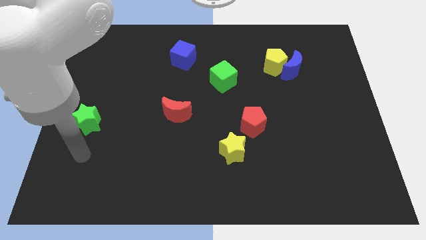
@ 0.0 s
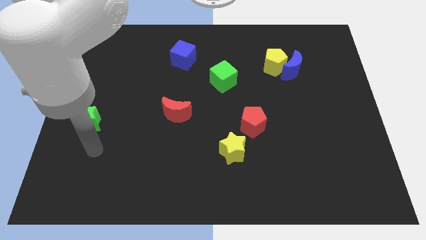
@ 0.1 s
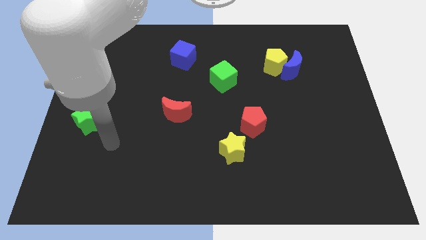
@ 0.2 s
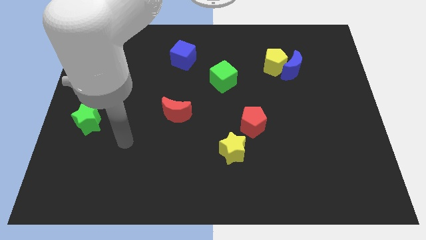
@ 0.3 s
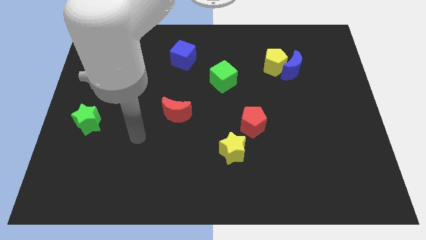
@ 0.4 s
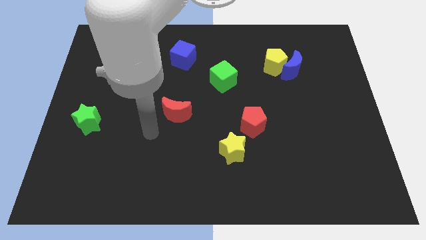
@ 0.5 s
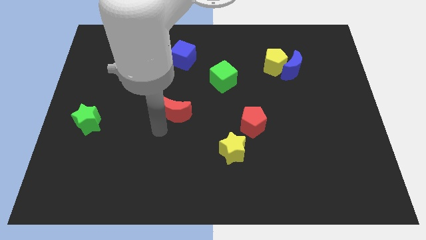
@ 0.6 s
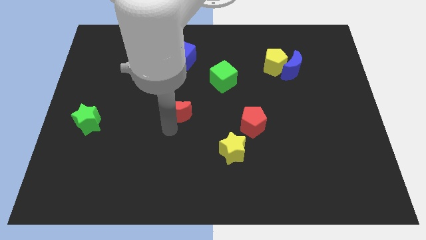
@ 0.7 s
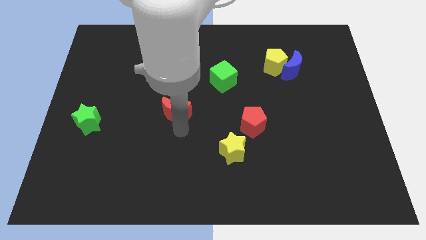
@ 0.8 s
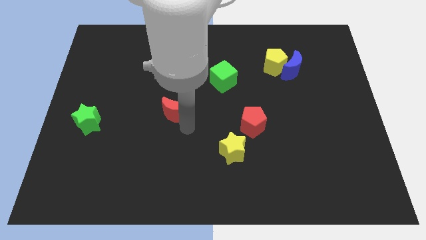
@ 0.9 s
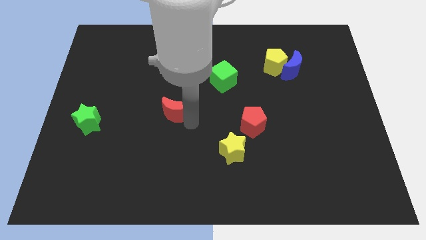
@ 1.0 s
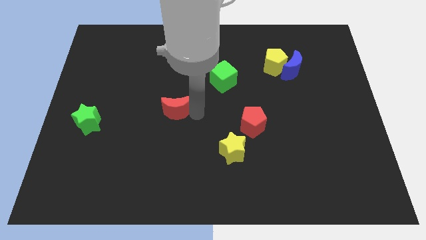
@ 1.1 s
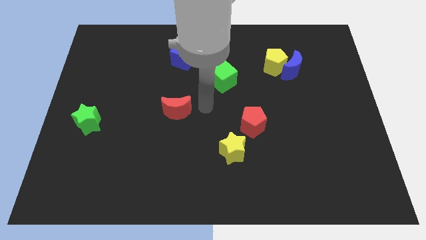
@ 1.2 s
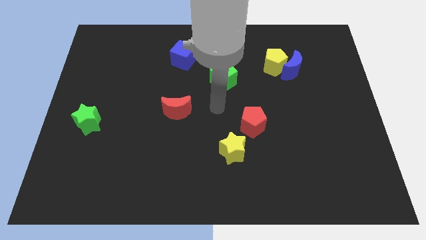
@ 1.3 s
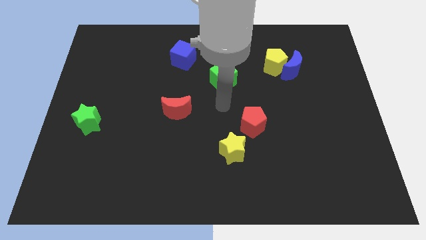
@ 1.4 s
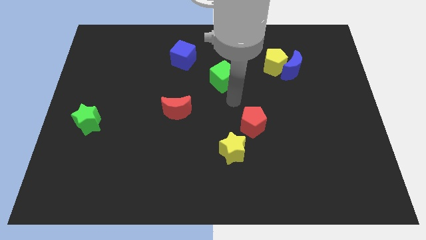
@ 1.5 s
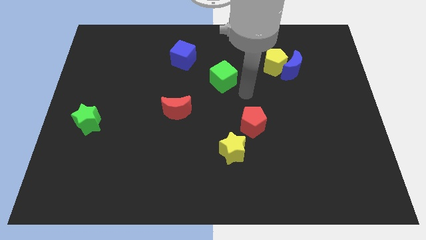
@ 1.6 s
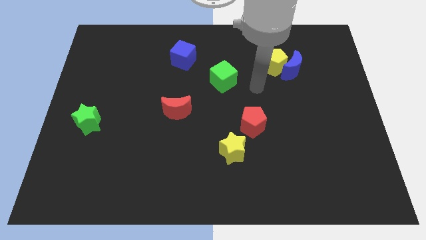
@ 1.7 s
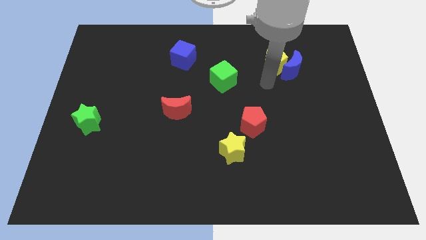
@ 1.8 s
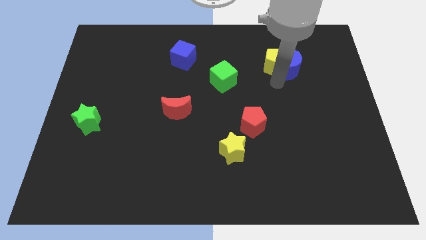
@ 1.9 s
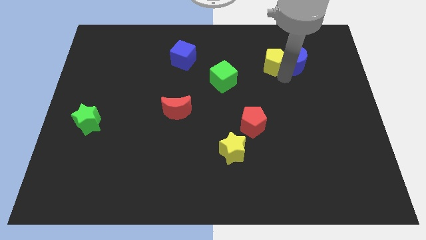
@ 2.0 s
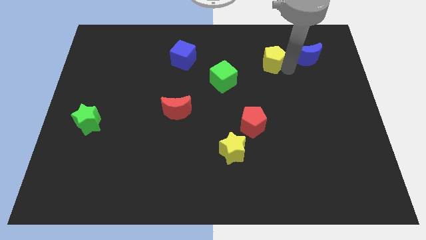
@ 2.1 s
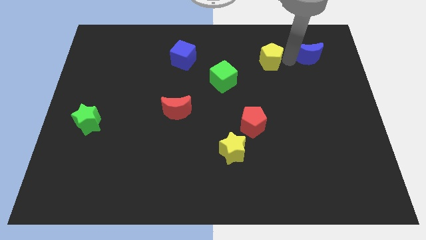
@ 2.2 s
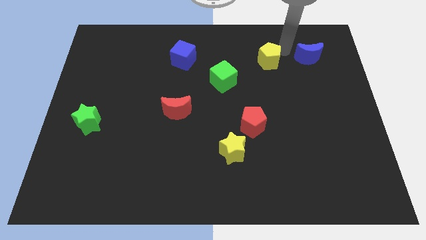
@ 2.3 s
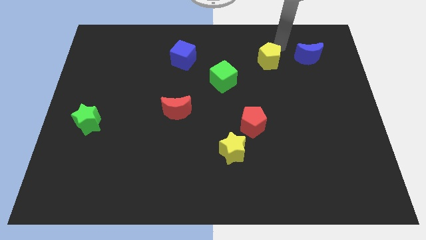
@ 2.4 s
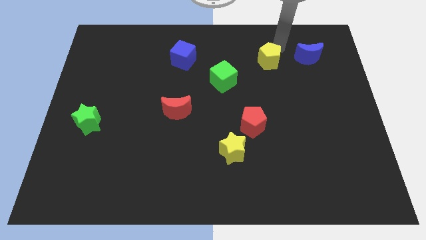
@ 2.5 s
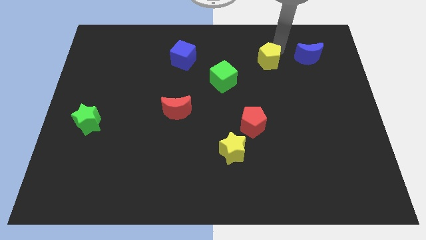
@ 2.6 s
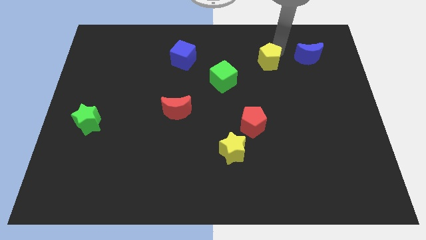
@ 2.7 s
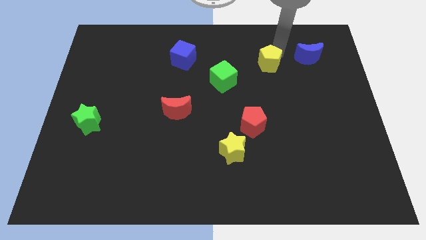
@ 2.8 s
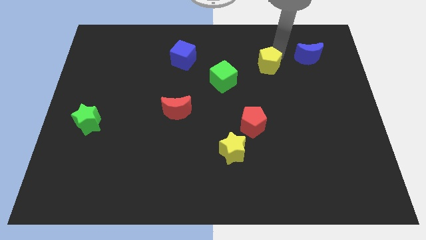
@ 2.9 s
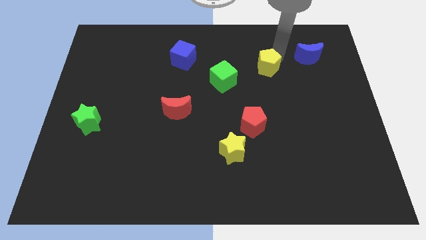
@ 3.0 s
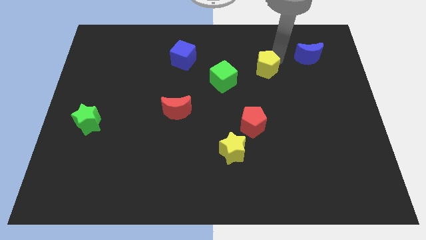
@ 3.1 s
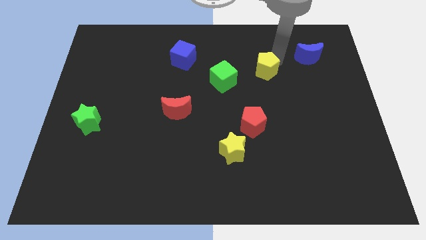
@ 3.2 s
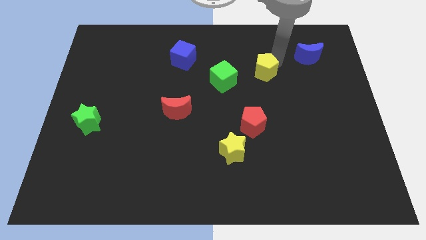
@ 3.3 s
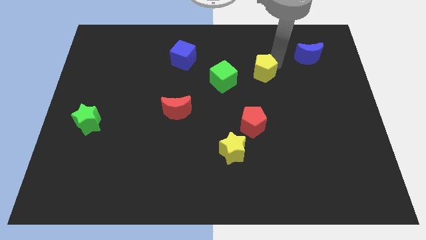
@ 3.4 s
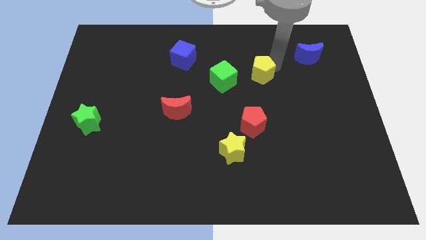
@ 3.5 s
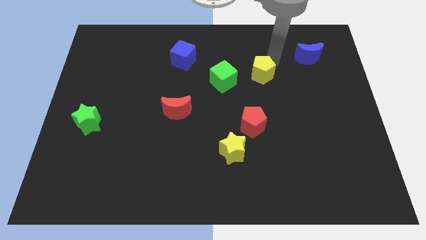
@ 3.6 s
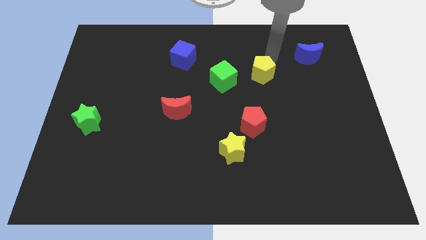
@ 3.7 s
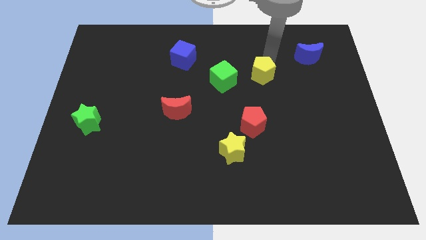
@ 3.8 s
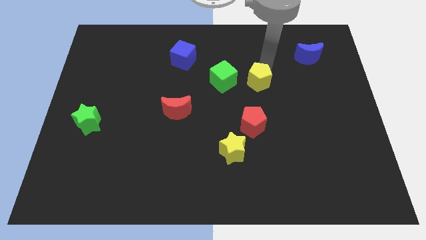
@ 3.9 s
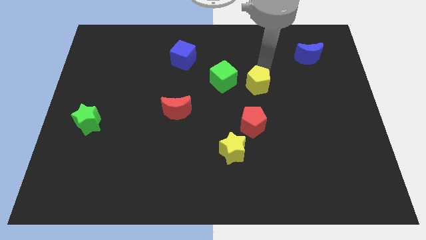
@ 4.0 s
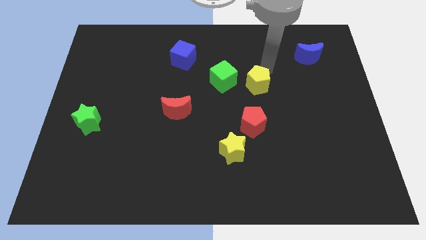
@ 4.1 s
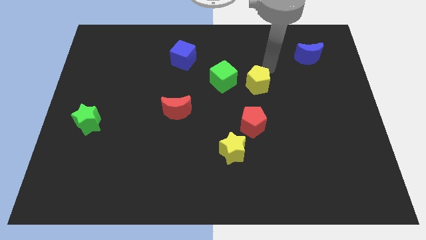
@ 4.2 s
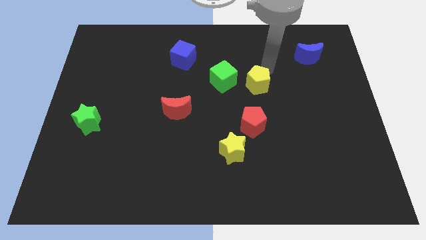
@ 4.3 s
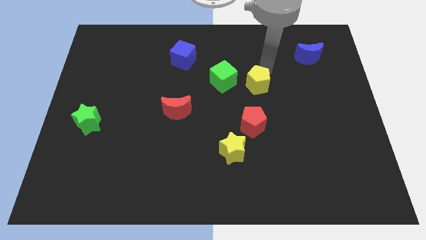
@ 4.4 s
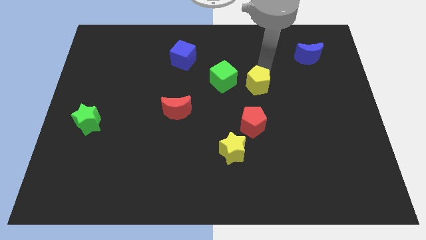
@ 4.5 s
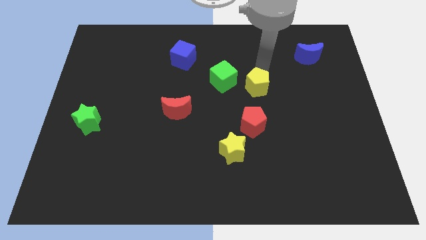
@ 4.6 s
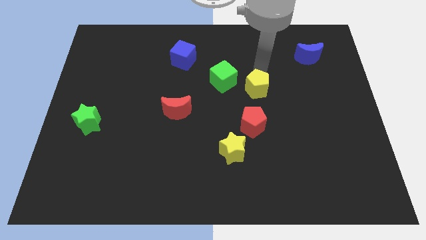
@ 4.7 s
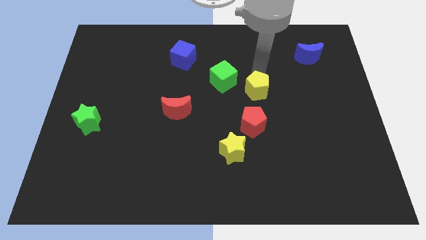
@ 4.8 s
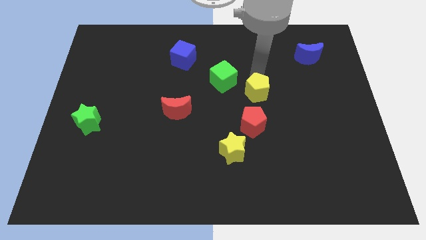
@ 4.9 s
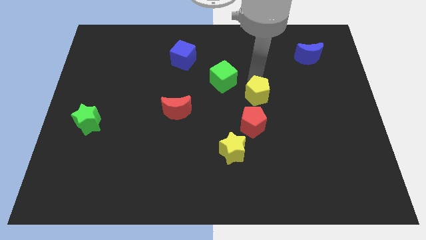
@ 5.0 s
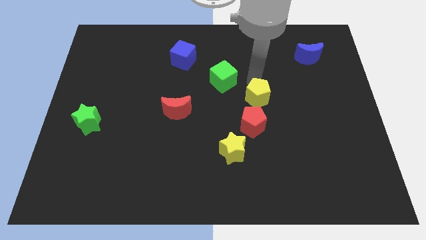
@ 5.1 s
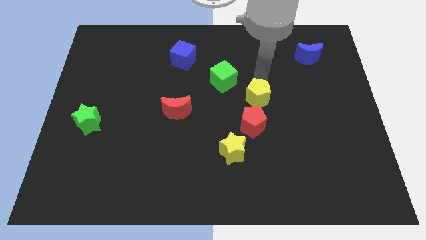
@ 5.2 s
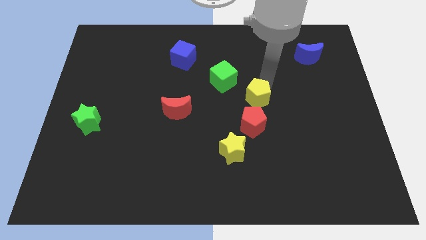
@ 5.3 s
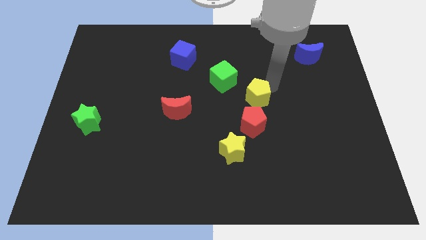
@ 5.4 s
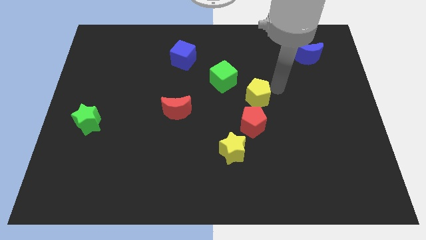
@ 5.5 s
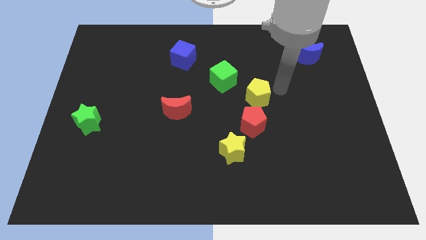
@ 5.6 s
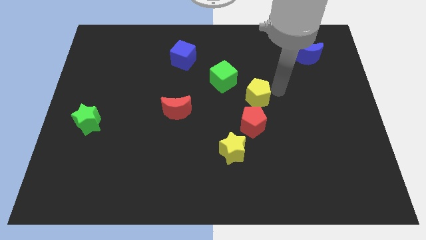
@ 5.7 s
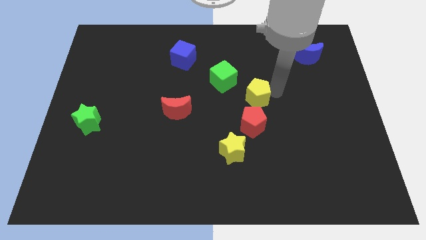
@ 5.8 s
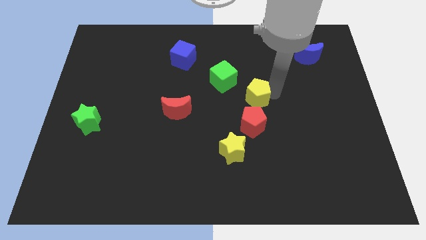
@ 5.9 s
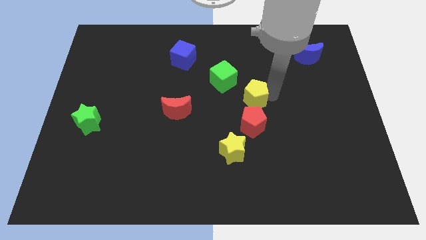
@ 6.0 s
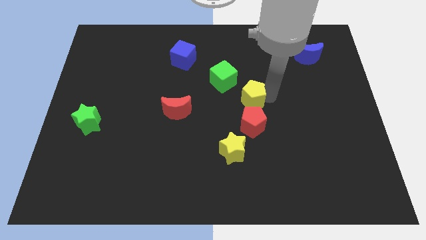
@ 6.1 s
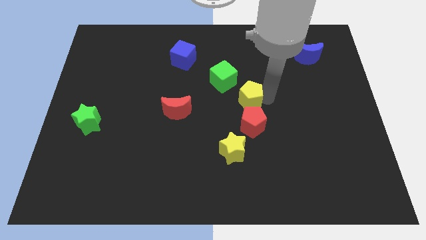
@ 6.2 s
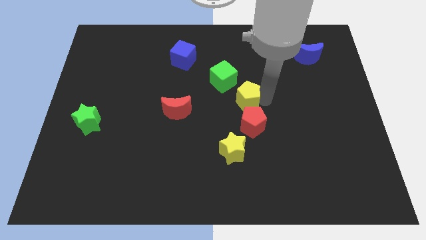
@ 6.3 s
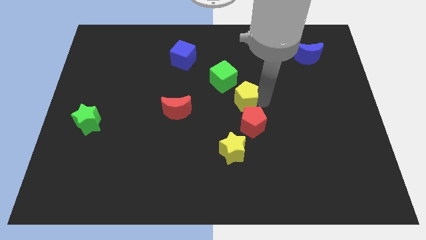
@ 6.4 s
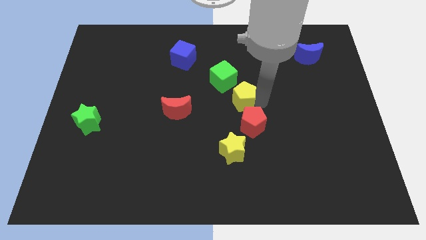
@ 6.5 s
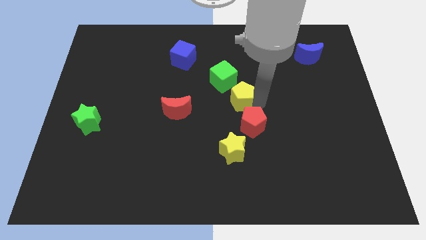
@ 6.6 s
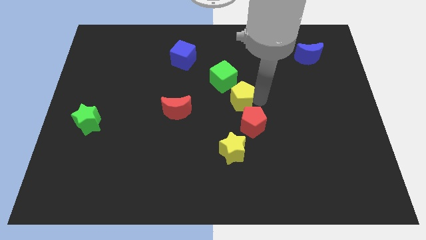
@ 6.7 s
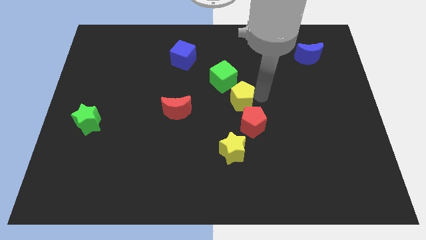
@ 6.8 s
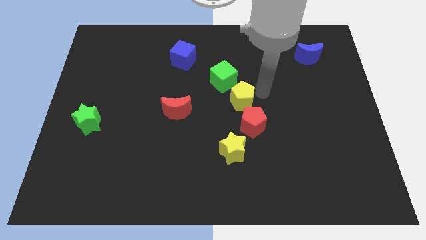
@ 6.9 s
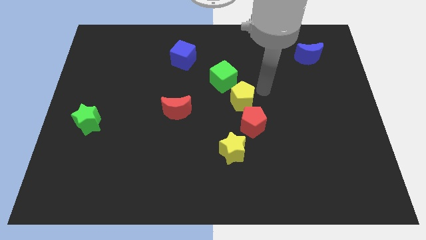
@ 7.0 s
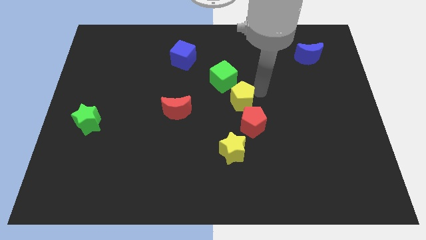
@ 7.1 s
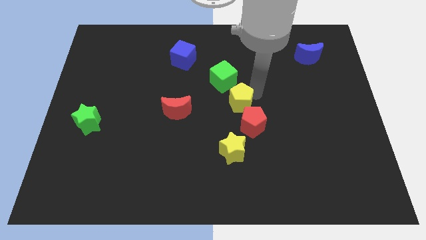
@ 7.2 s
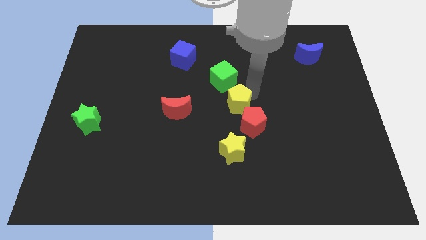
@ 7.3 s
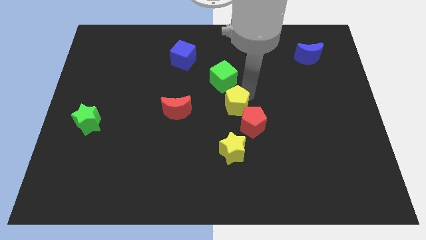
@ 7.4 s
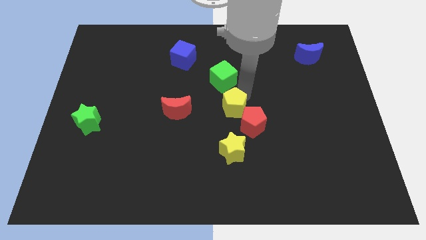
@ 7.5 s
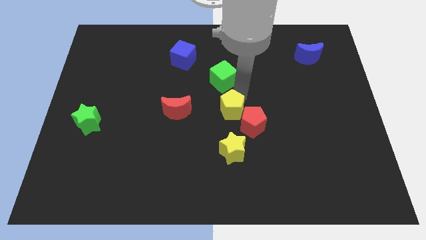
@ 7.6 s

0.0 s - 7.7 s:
put the yellow pentagon left of the red pentagon

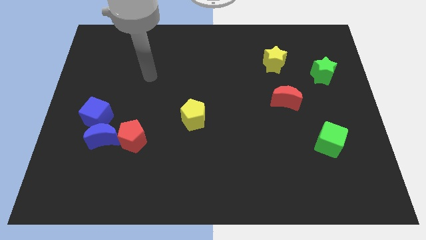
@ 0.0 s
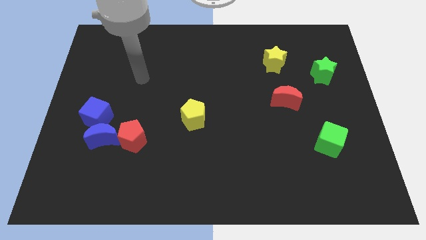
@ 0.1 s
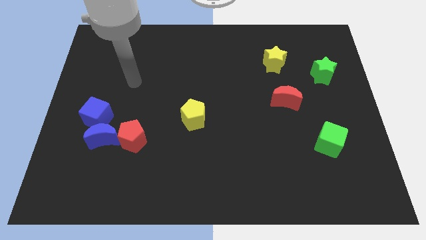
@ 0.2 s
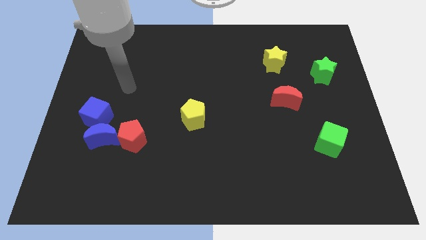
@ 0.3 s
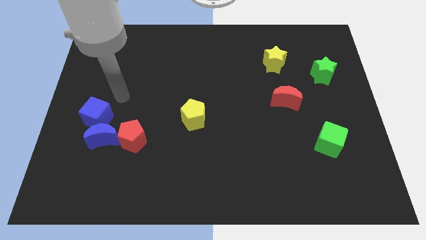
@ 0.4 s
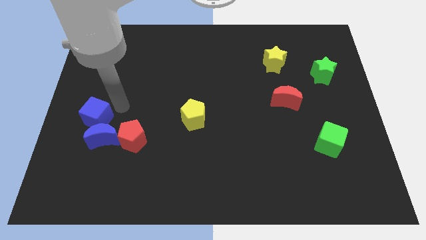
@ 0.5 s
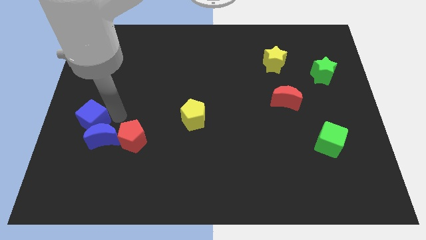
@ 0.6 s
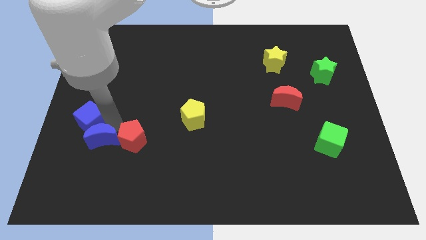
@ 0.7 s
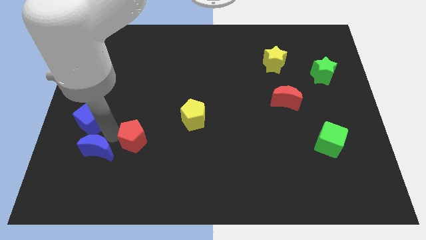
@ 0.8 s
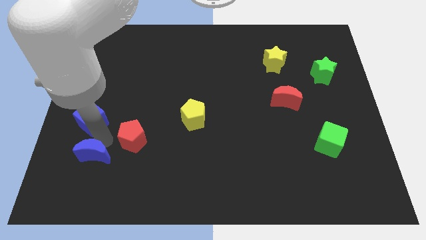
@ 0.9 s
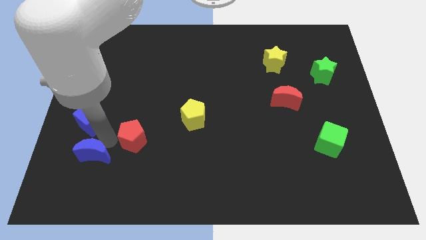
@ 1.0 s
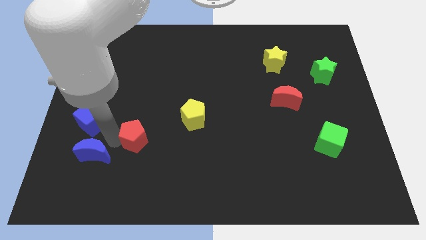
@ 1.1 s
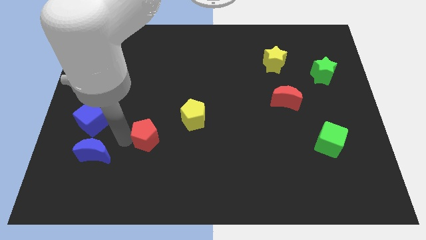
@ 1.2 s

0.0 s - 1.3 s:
push the red pentagon to the bottom left of the yellow pentagon
